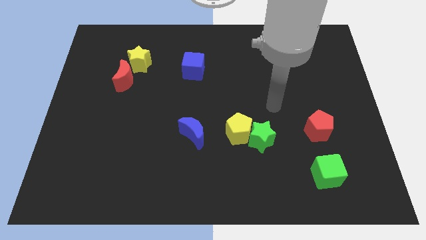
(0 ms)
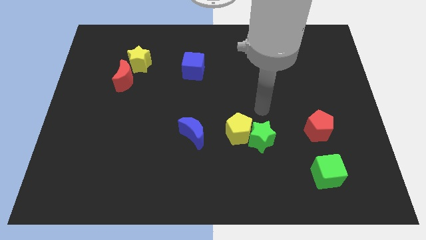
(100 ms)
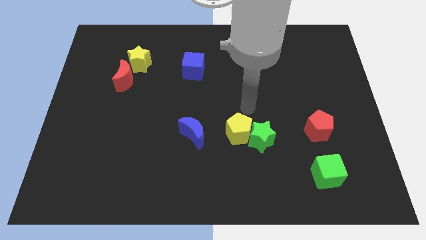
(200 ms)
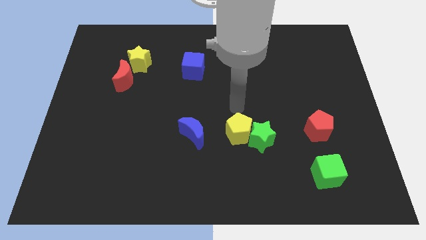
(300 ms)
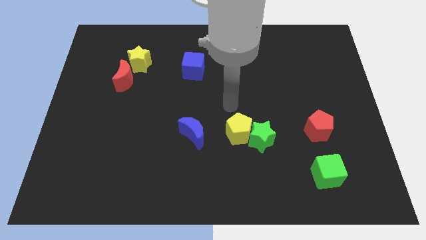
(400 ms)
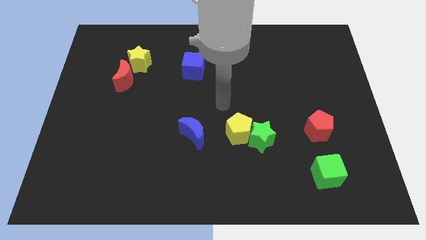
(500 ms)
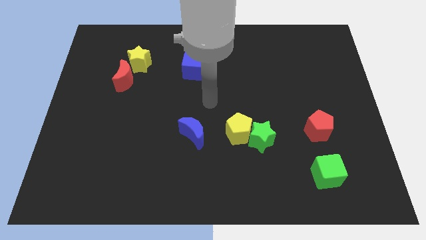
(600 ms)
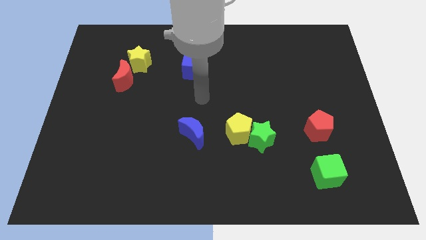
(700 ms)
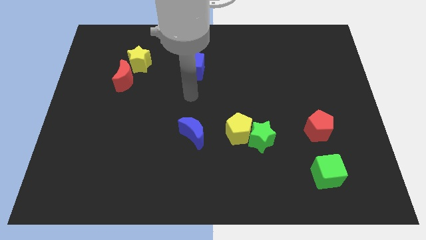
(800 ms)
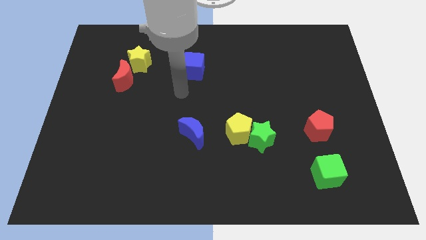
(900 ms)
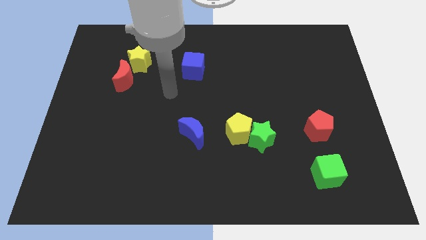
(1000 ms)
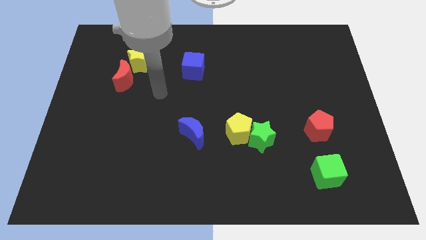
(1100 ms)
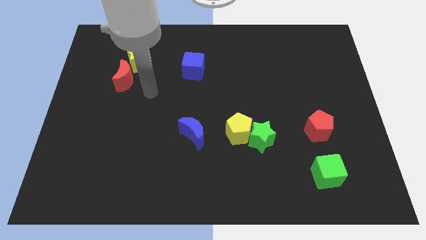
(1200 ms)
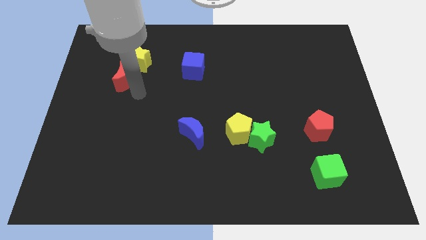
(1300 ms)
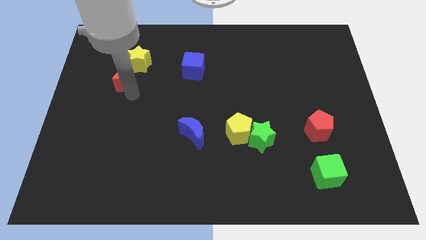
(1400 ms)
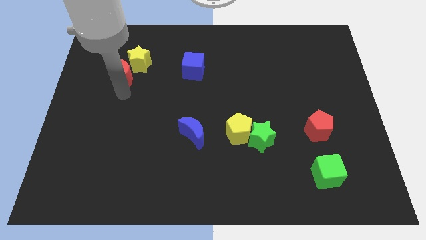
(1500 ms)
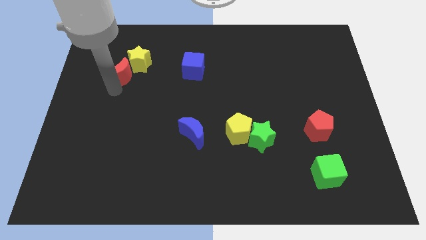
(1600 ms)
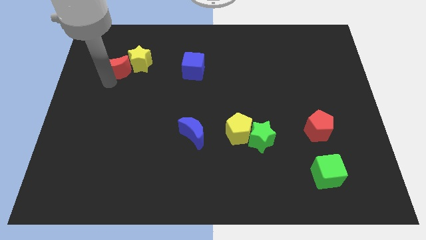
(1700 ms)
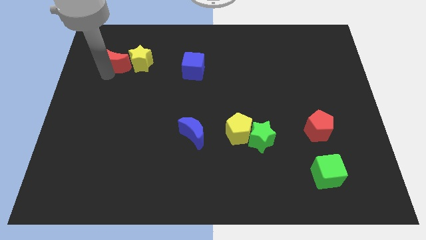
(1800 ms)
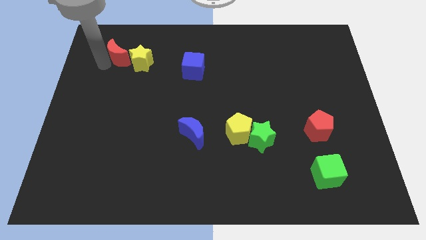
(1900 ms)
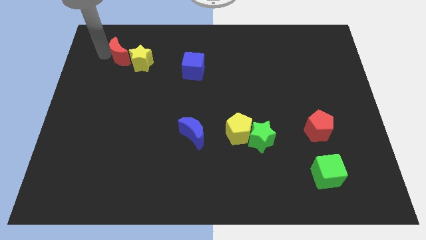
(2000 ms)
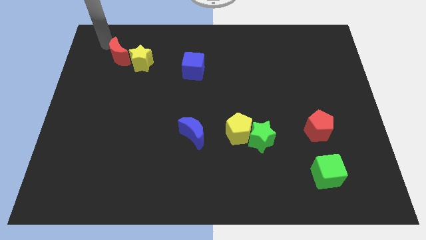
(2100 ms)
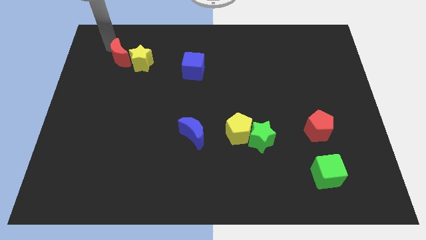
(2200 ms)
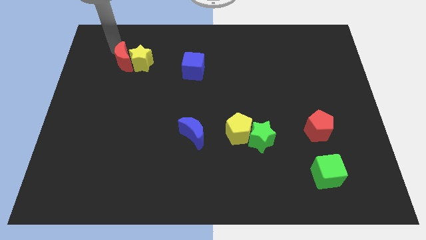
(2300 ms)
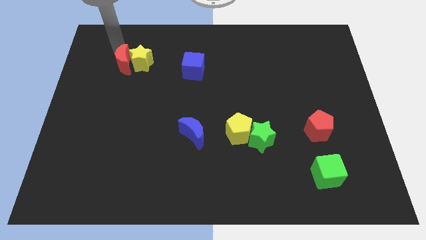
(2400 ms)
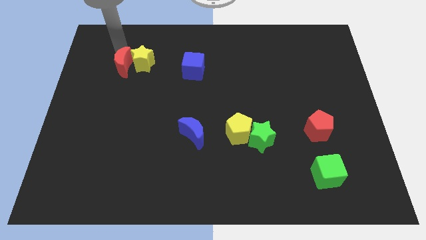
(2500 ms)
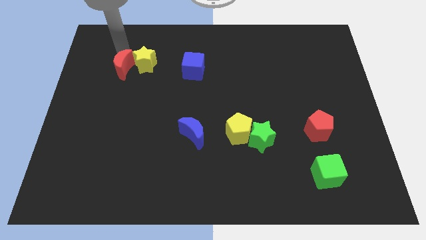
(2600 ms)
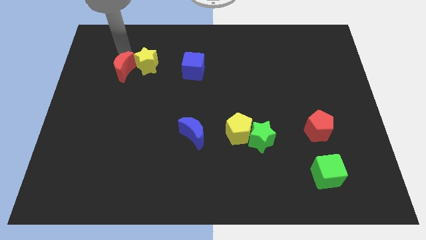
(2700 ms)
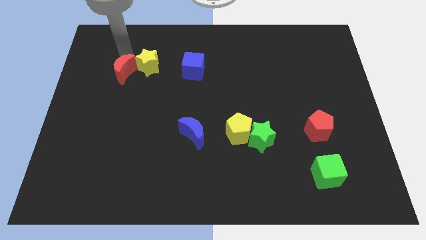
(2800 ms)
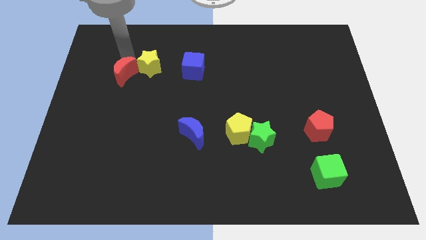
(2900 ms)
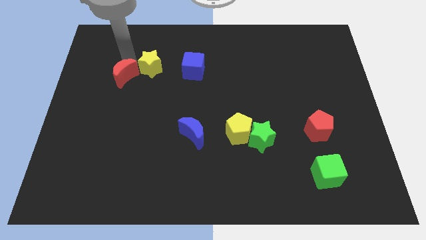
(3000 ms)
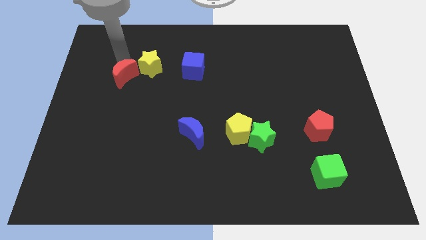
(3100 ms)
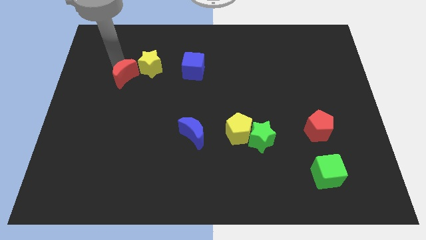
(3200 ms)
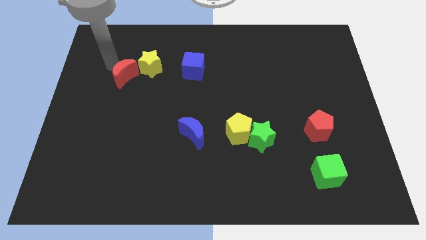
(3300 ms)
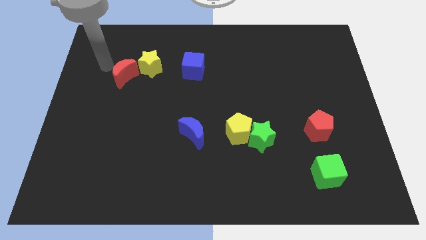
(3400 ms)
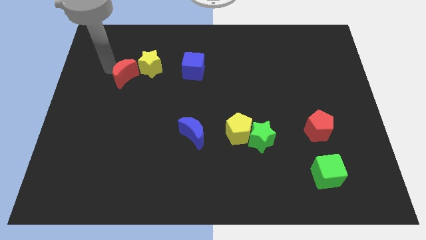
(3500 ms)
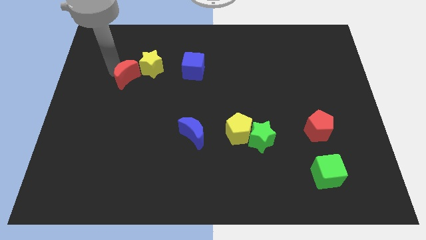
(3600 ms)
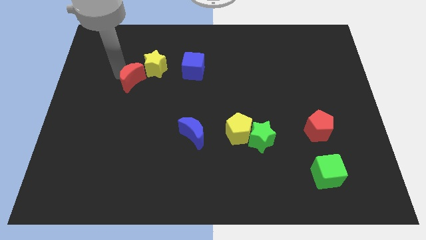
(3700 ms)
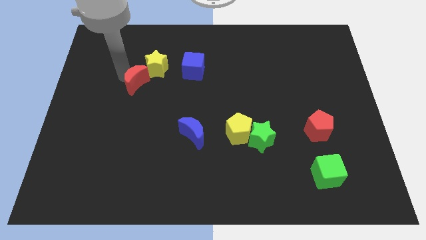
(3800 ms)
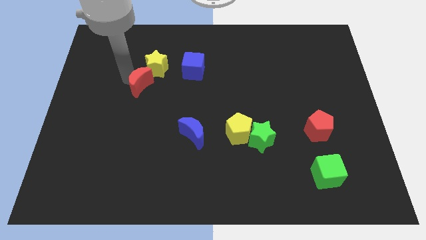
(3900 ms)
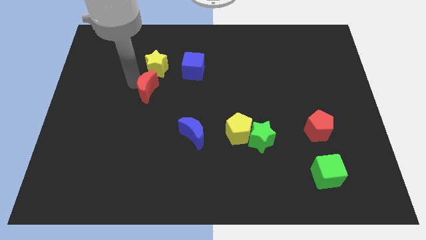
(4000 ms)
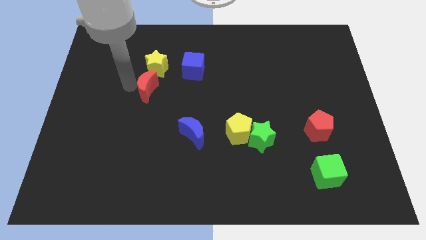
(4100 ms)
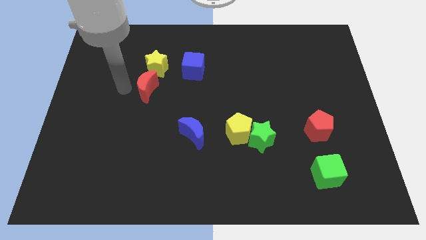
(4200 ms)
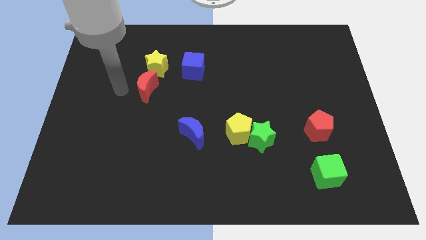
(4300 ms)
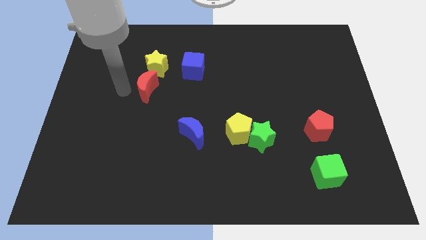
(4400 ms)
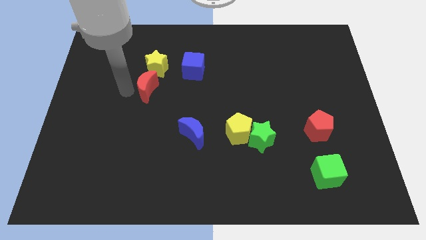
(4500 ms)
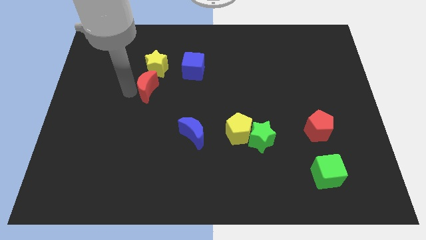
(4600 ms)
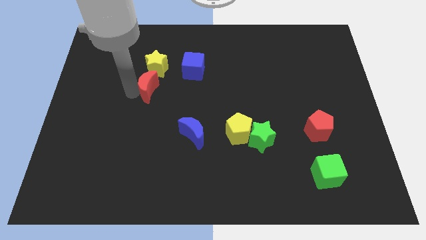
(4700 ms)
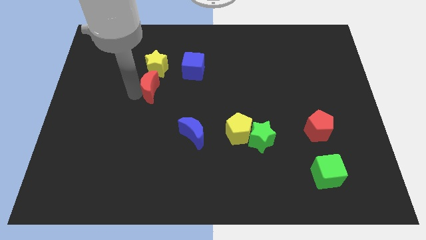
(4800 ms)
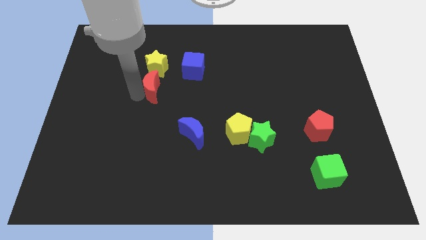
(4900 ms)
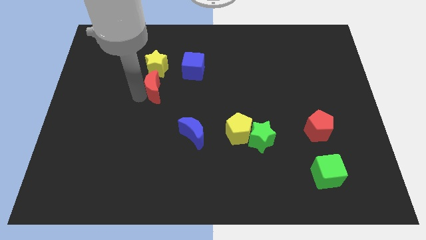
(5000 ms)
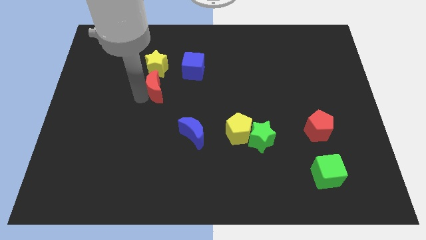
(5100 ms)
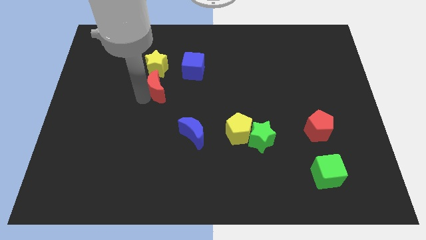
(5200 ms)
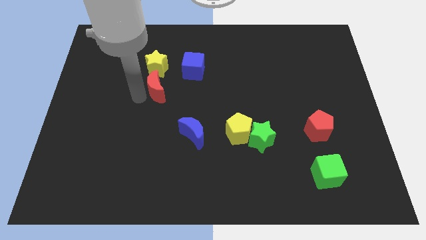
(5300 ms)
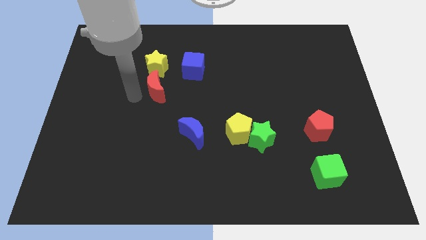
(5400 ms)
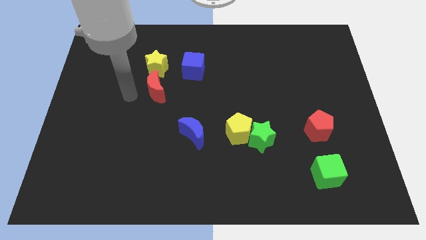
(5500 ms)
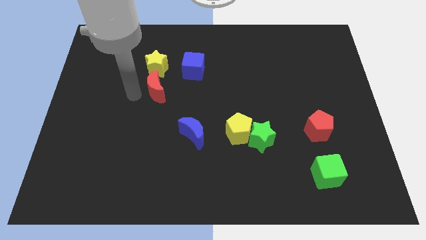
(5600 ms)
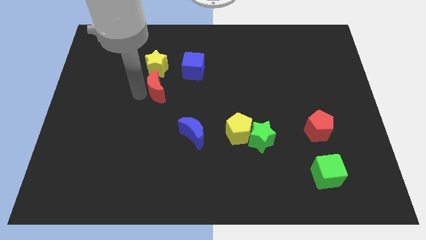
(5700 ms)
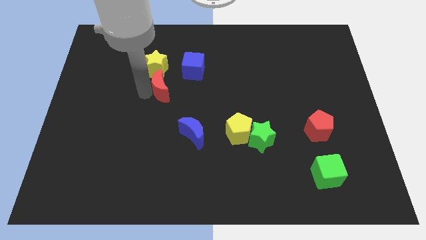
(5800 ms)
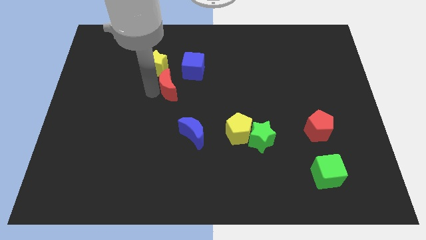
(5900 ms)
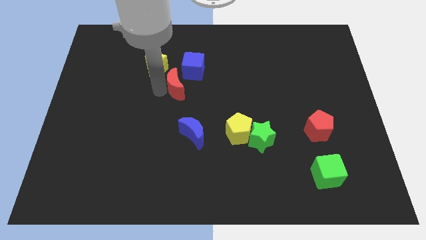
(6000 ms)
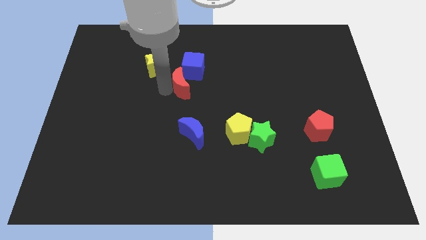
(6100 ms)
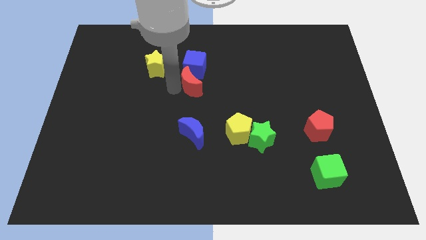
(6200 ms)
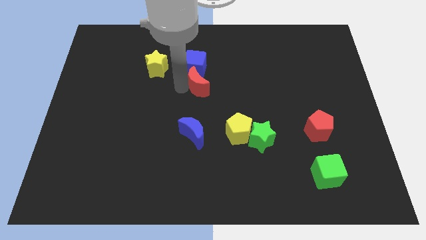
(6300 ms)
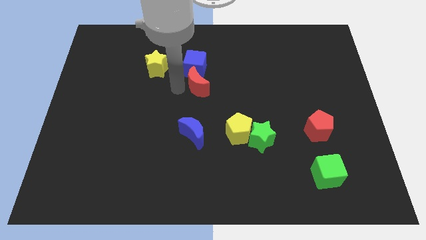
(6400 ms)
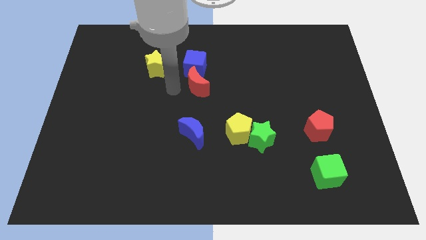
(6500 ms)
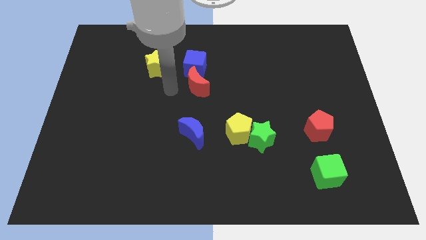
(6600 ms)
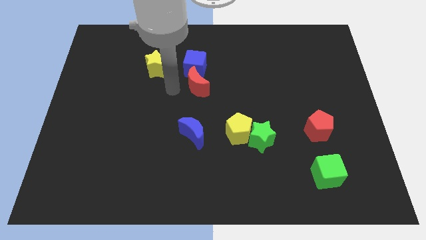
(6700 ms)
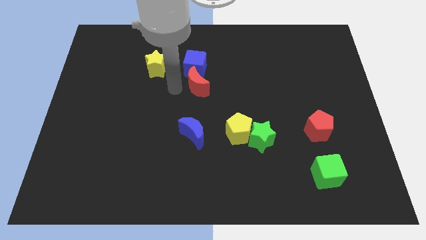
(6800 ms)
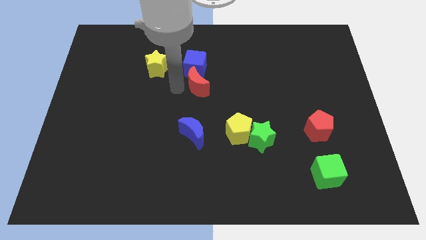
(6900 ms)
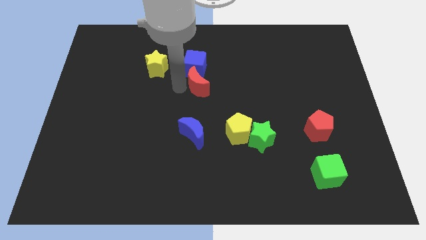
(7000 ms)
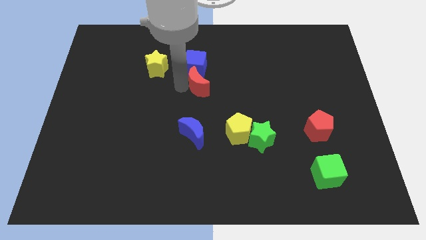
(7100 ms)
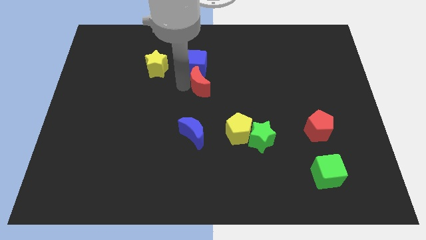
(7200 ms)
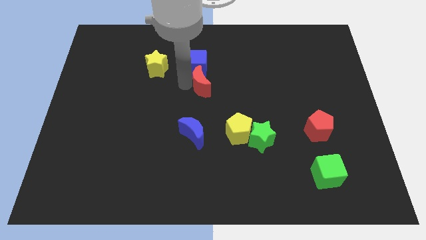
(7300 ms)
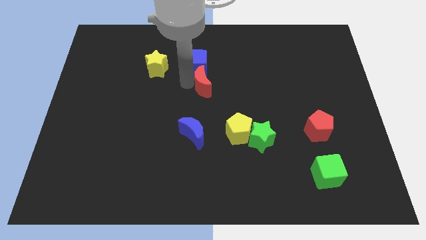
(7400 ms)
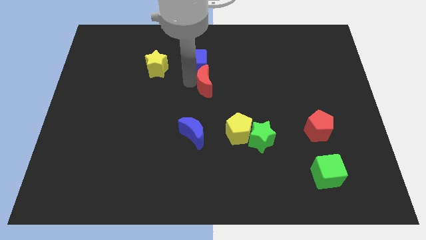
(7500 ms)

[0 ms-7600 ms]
move the red moon right
